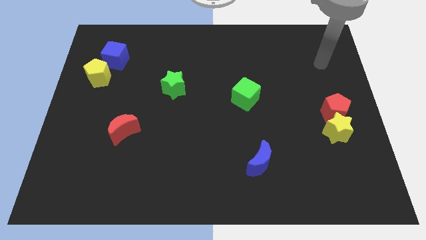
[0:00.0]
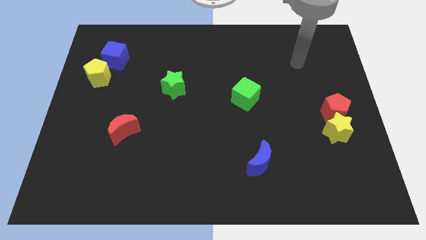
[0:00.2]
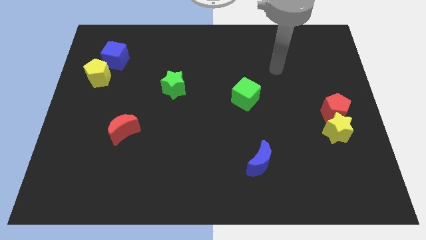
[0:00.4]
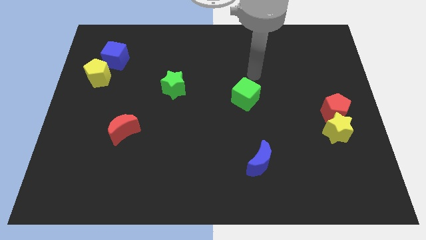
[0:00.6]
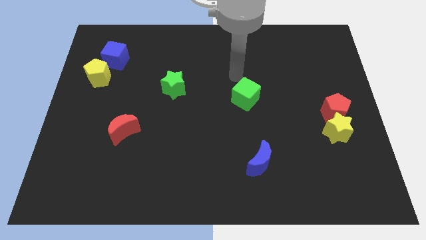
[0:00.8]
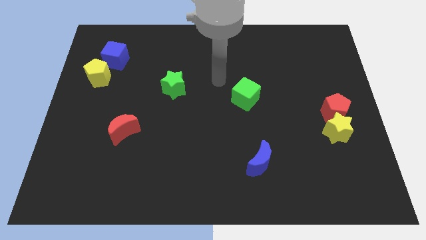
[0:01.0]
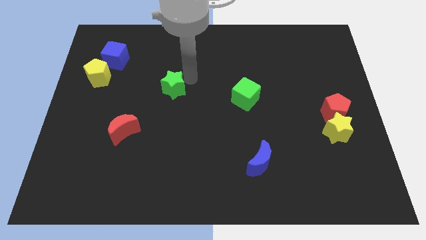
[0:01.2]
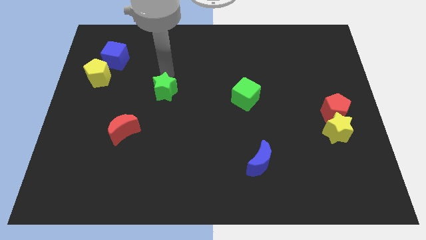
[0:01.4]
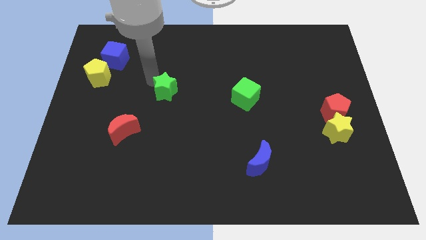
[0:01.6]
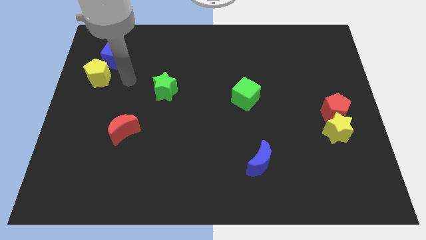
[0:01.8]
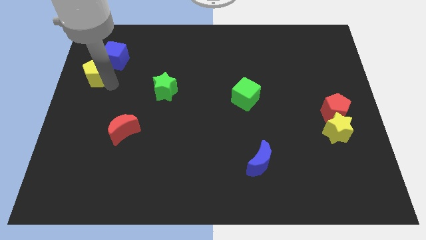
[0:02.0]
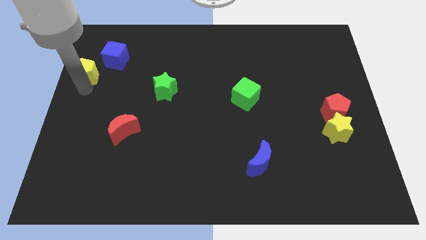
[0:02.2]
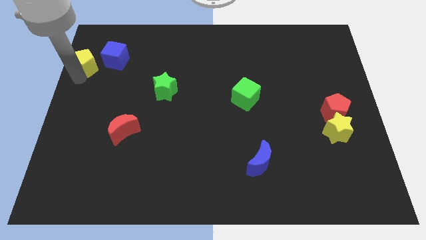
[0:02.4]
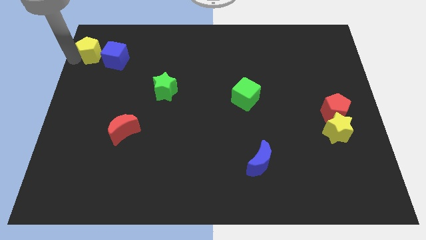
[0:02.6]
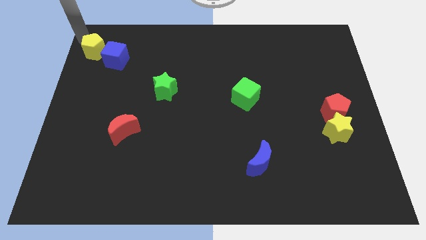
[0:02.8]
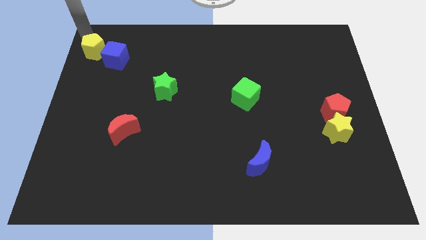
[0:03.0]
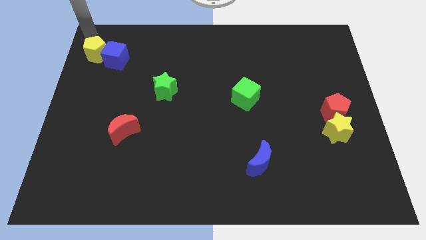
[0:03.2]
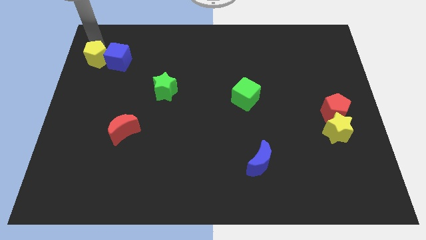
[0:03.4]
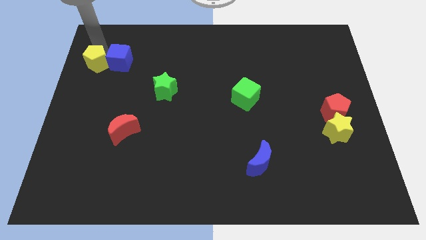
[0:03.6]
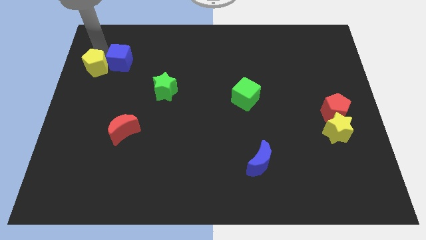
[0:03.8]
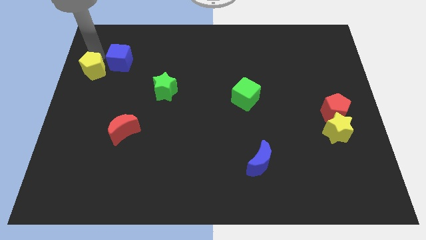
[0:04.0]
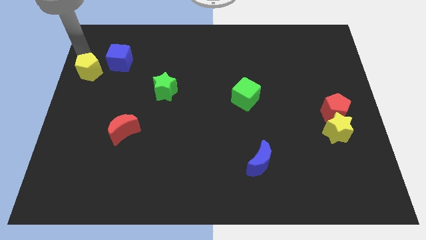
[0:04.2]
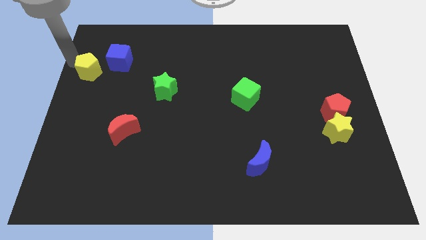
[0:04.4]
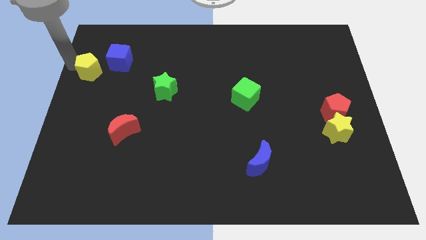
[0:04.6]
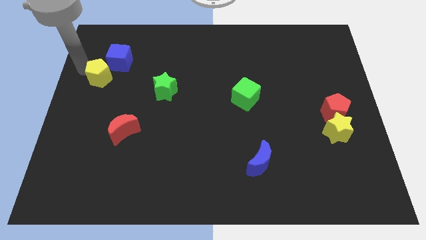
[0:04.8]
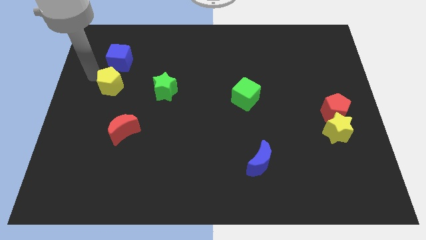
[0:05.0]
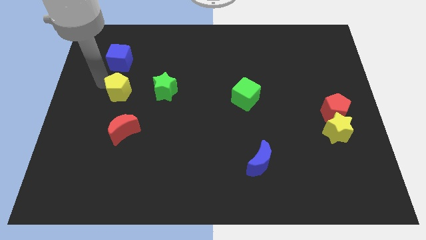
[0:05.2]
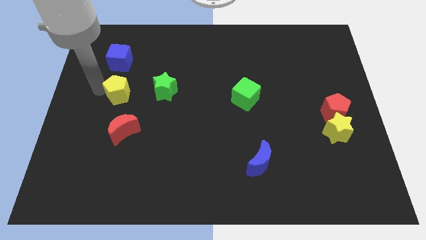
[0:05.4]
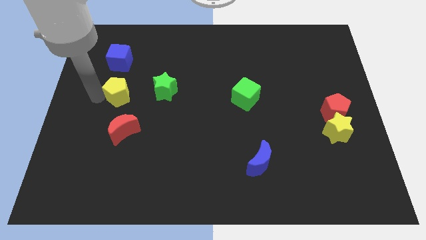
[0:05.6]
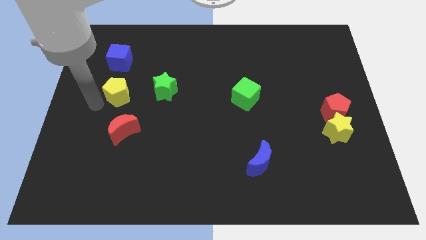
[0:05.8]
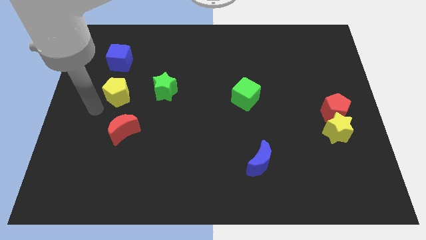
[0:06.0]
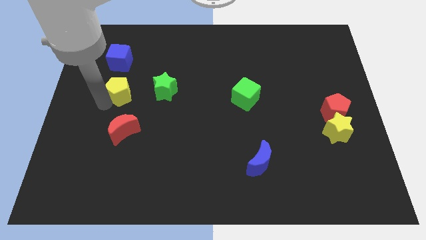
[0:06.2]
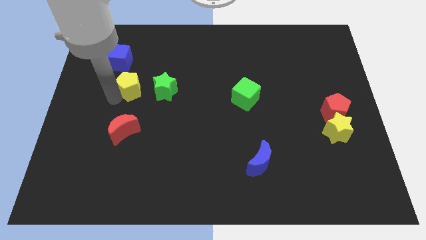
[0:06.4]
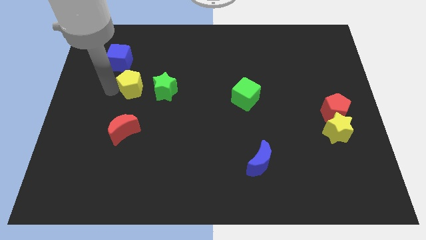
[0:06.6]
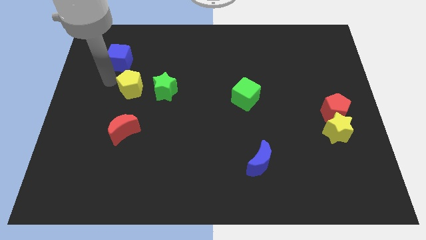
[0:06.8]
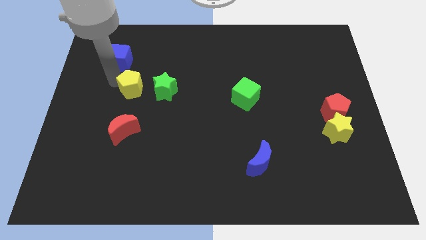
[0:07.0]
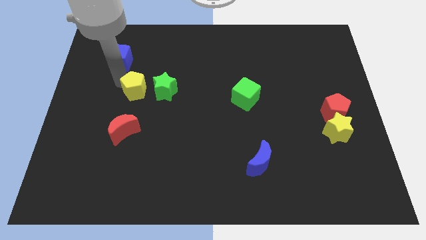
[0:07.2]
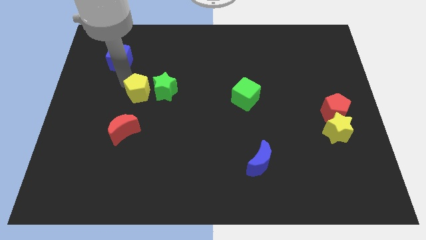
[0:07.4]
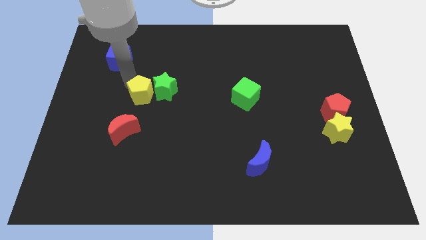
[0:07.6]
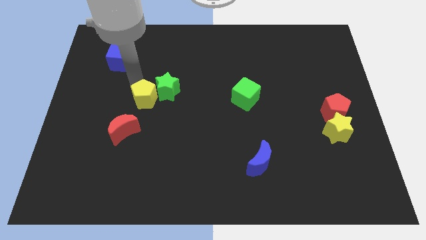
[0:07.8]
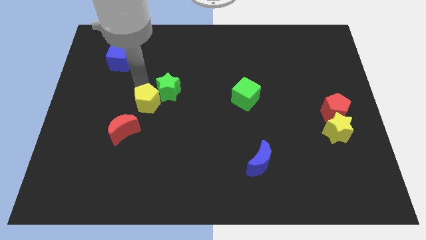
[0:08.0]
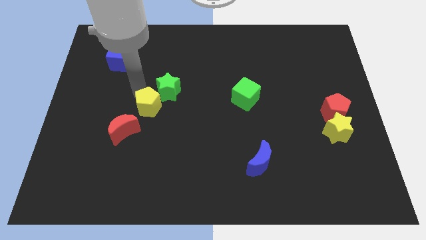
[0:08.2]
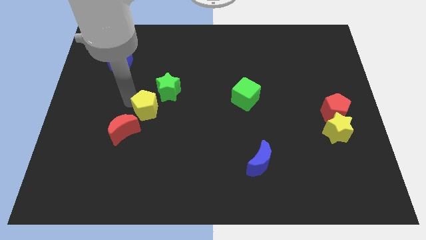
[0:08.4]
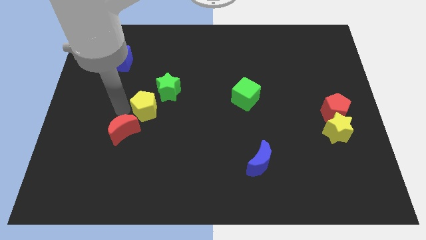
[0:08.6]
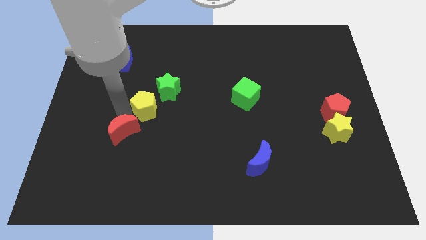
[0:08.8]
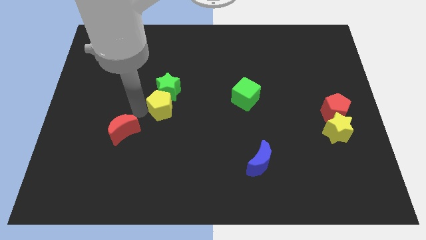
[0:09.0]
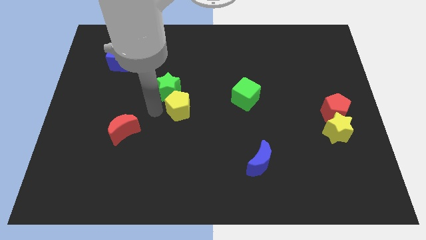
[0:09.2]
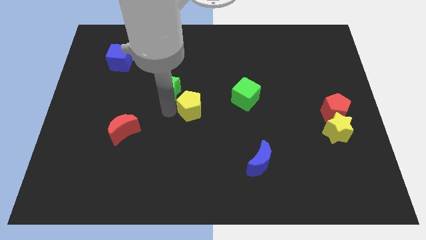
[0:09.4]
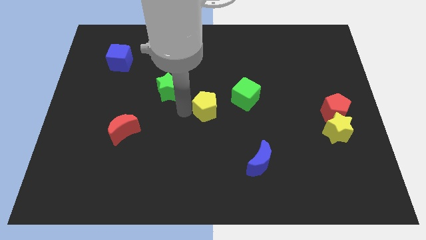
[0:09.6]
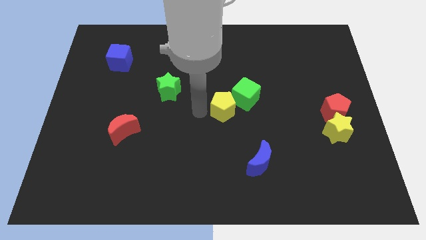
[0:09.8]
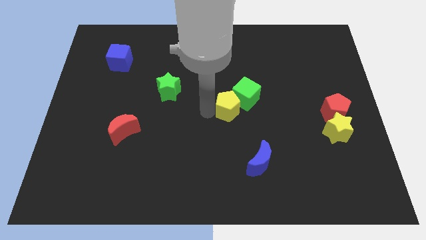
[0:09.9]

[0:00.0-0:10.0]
move the yellow pentagon next to the green cube

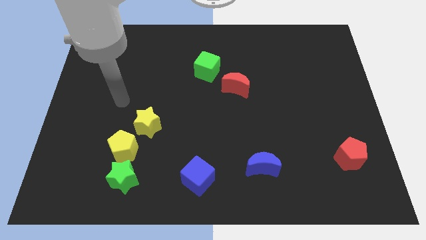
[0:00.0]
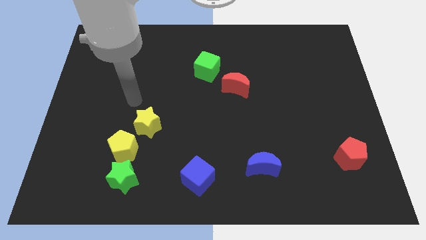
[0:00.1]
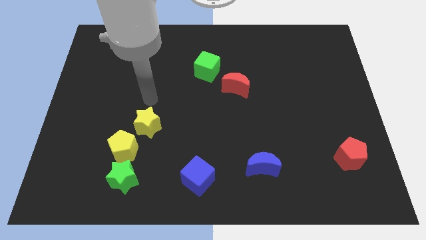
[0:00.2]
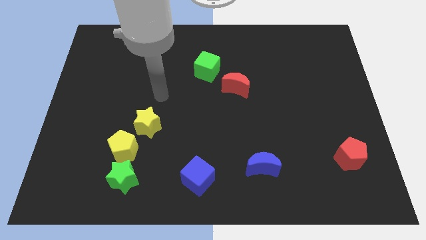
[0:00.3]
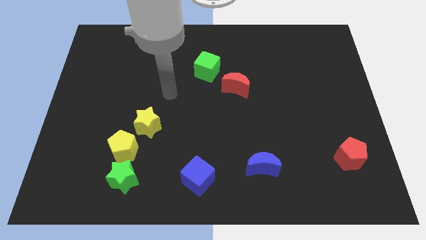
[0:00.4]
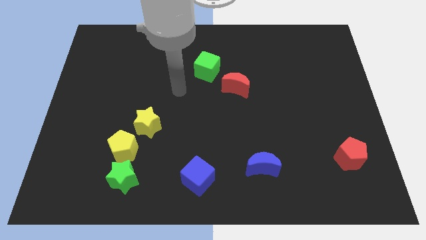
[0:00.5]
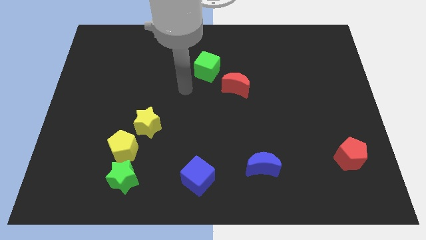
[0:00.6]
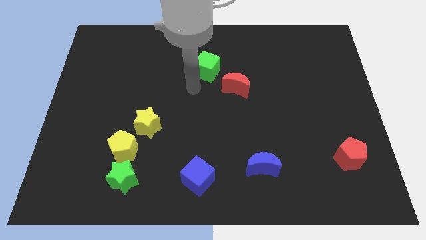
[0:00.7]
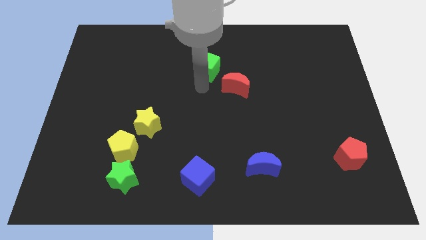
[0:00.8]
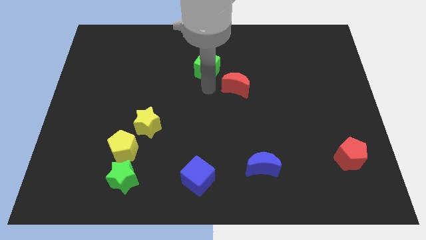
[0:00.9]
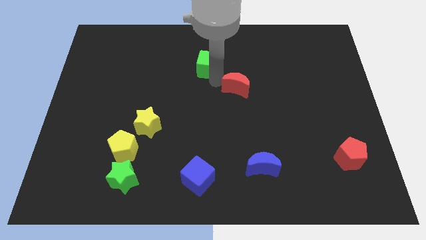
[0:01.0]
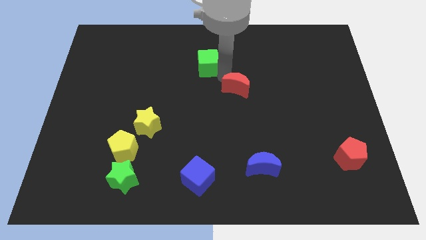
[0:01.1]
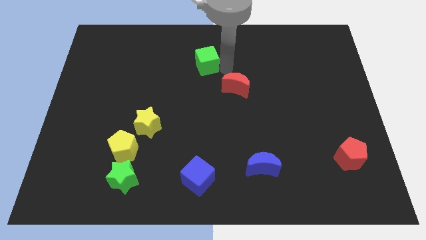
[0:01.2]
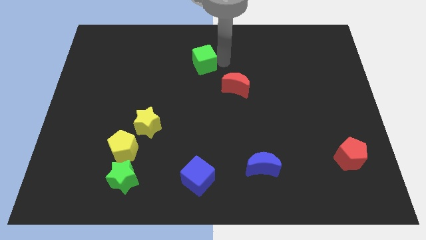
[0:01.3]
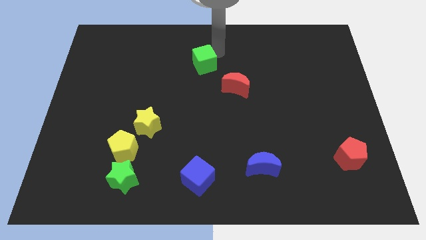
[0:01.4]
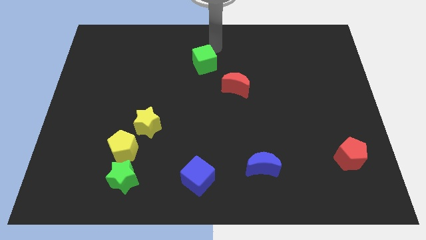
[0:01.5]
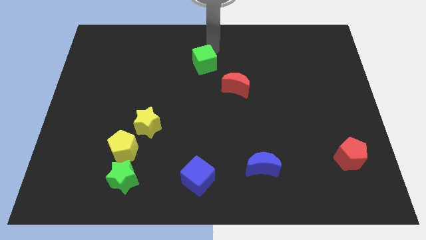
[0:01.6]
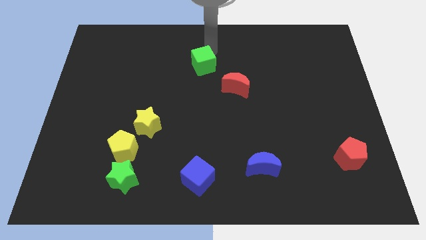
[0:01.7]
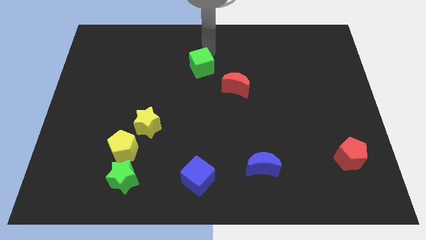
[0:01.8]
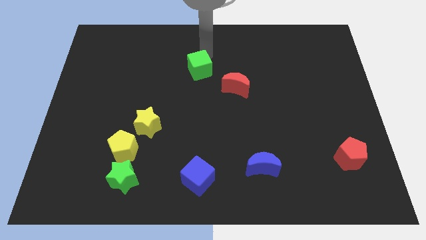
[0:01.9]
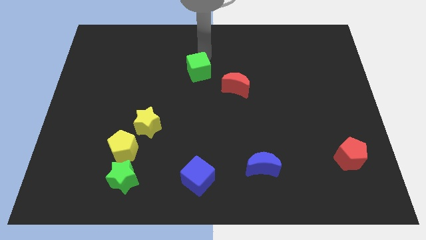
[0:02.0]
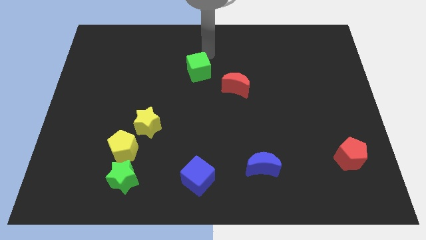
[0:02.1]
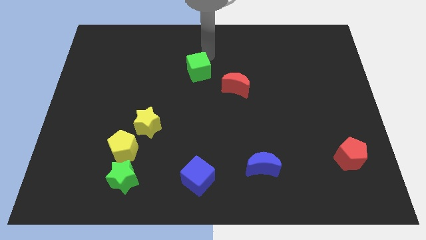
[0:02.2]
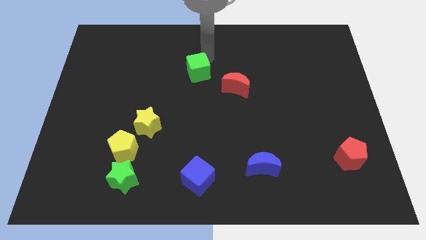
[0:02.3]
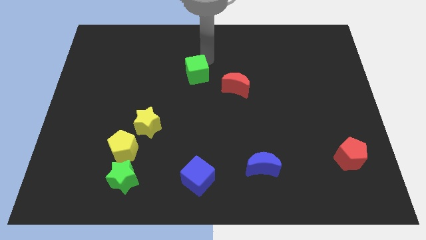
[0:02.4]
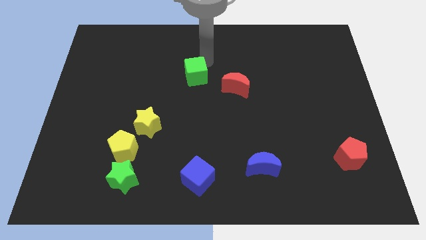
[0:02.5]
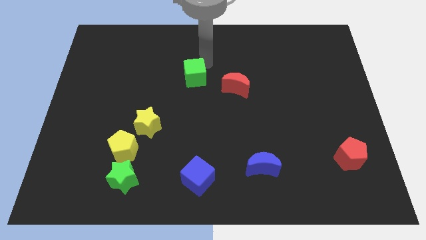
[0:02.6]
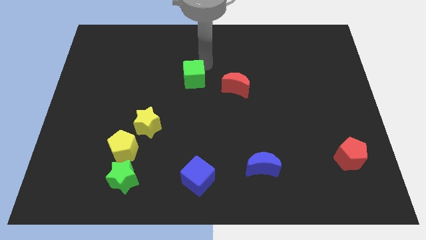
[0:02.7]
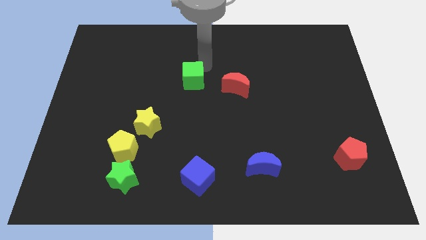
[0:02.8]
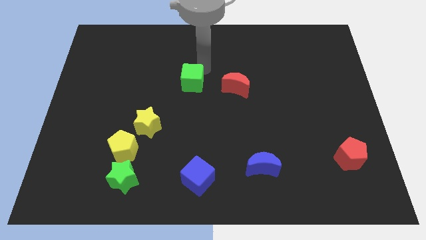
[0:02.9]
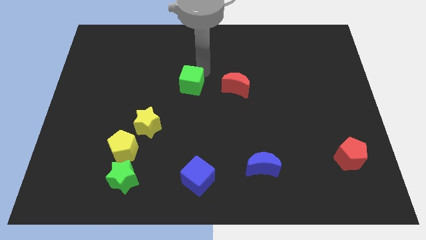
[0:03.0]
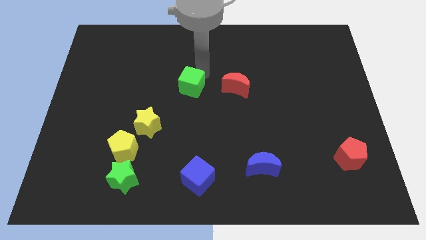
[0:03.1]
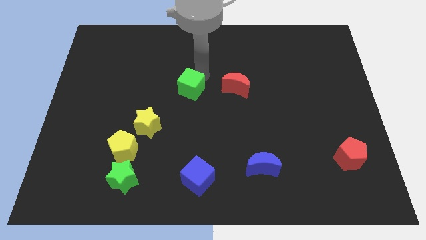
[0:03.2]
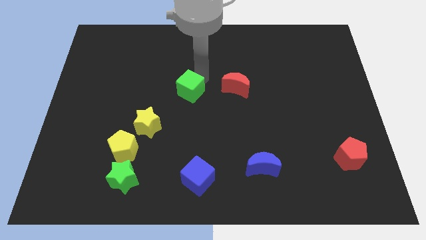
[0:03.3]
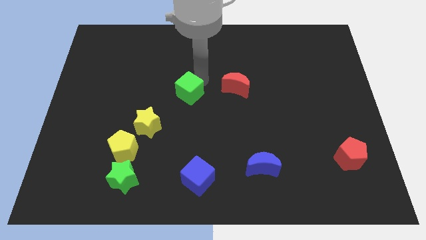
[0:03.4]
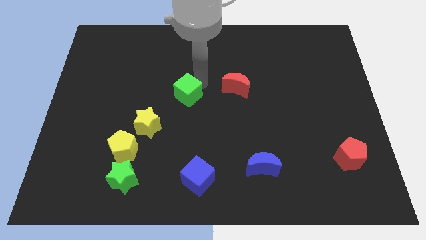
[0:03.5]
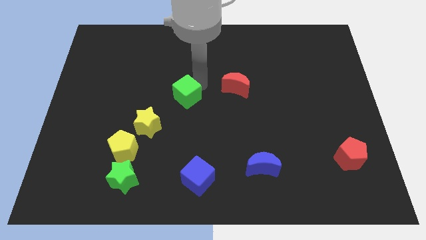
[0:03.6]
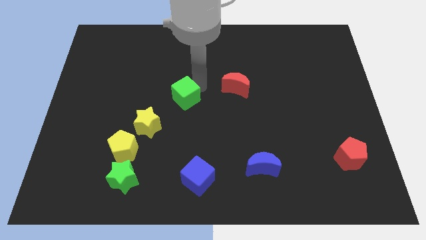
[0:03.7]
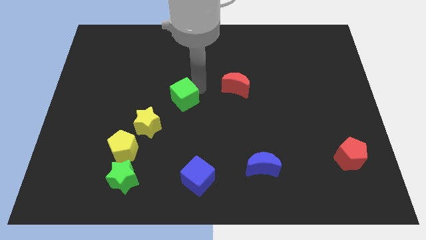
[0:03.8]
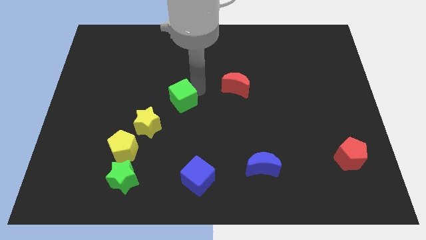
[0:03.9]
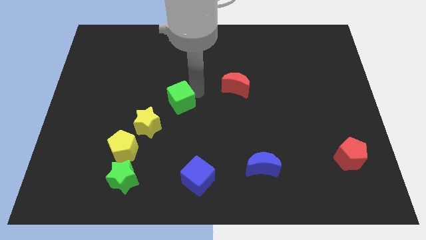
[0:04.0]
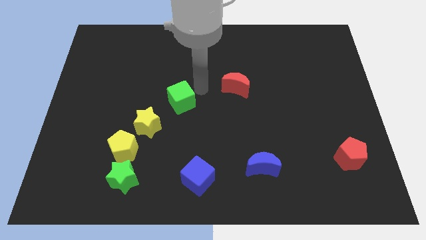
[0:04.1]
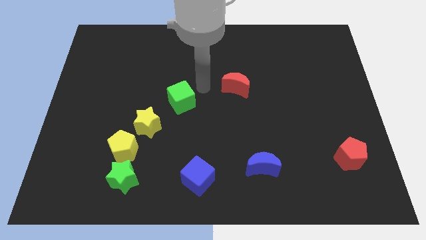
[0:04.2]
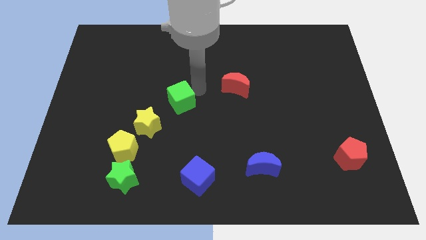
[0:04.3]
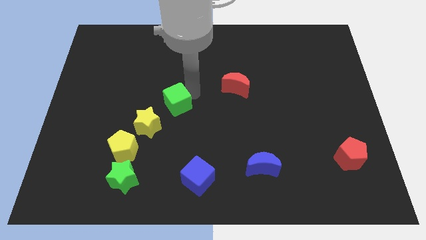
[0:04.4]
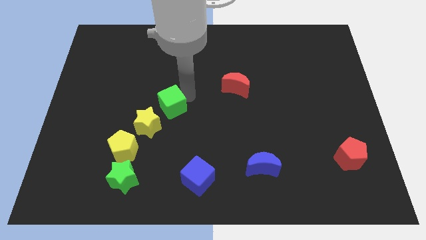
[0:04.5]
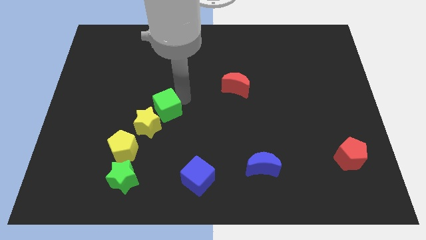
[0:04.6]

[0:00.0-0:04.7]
move the green cube close to the yellow star
